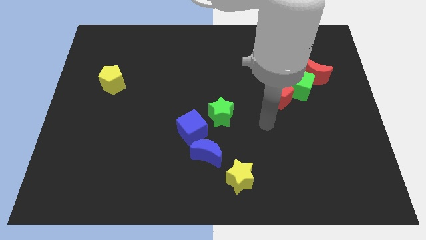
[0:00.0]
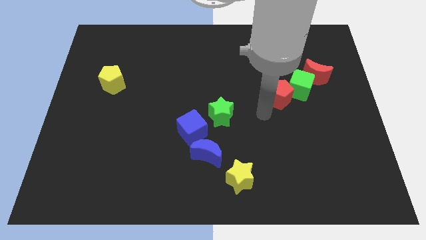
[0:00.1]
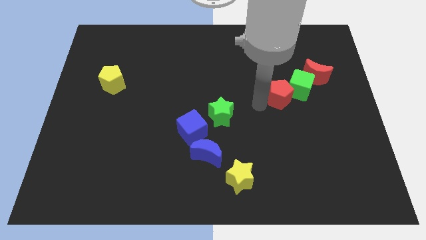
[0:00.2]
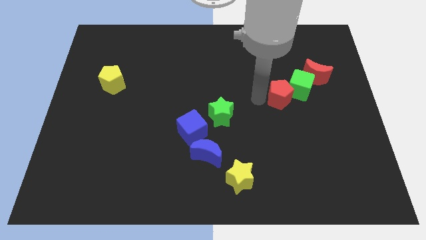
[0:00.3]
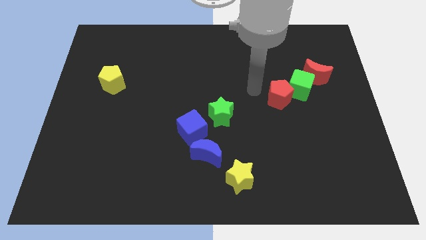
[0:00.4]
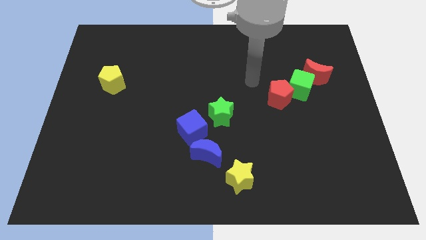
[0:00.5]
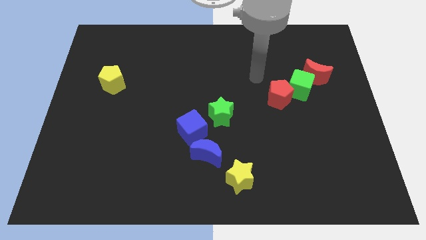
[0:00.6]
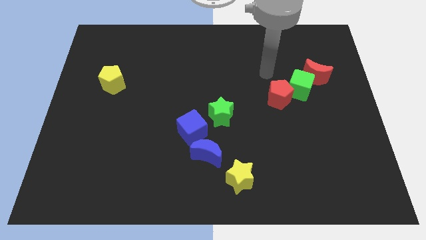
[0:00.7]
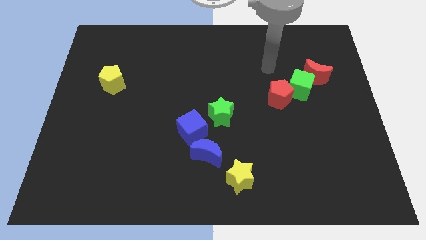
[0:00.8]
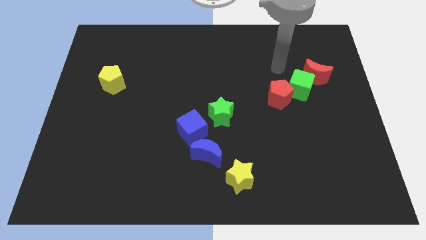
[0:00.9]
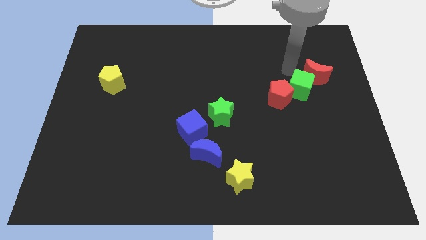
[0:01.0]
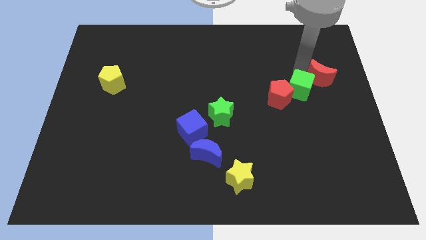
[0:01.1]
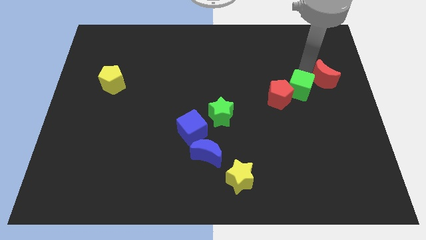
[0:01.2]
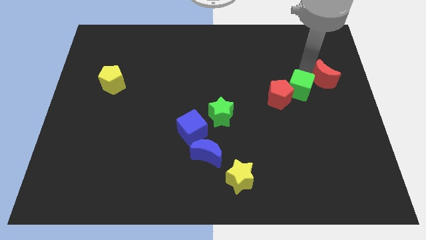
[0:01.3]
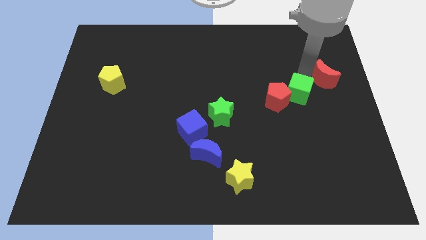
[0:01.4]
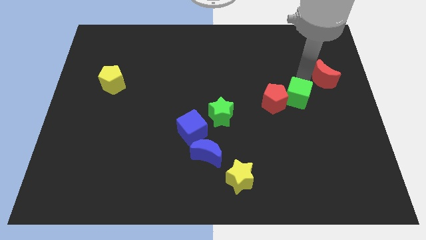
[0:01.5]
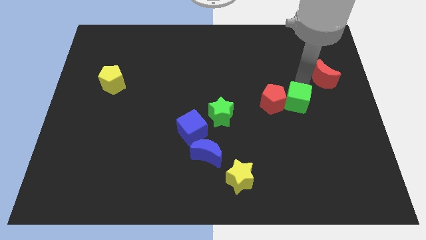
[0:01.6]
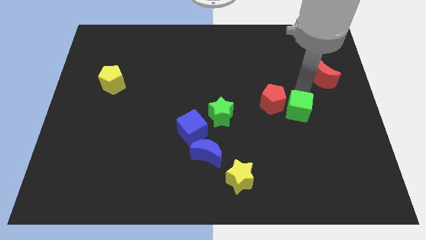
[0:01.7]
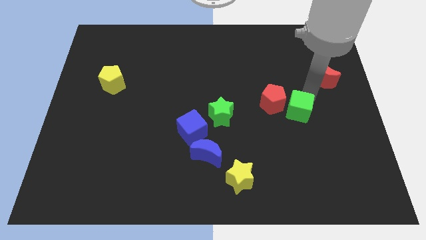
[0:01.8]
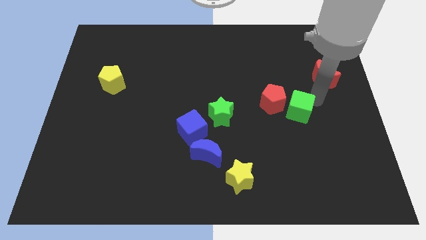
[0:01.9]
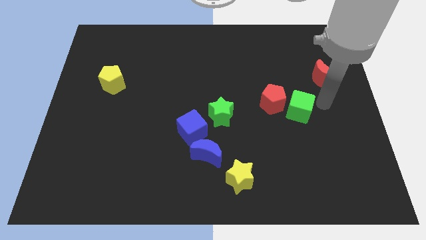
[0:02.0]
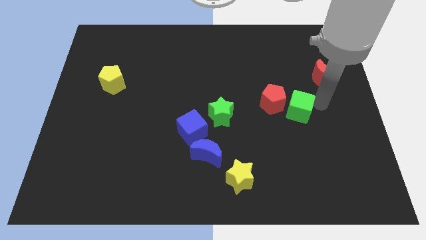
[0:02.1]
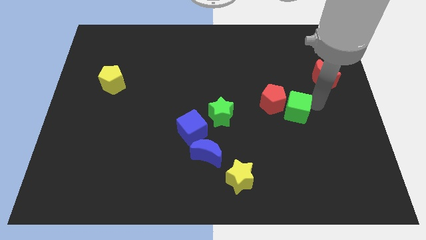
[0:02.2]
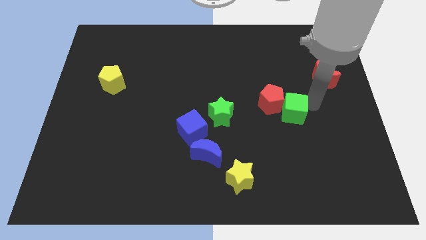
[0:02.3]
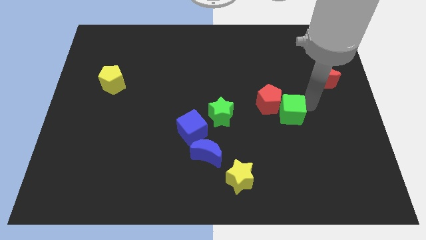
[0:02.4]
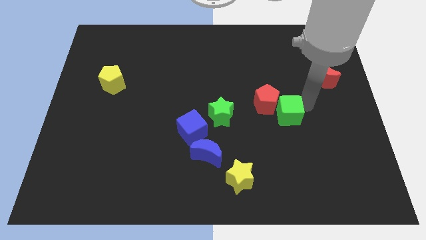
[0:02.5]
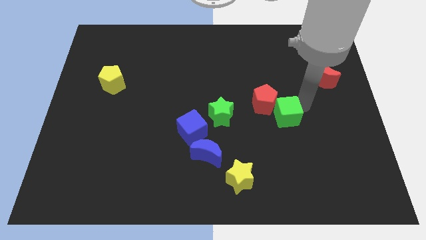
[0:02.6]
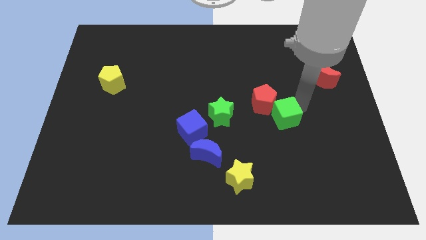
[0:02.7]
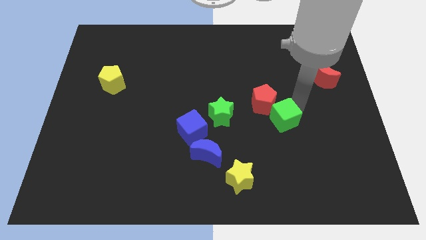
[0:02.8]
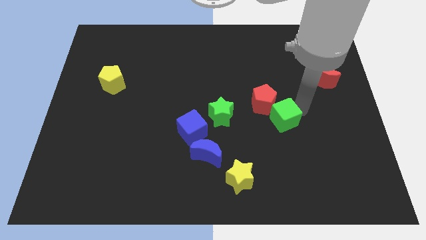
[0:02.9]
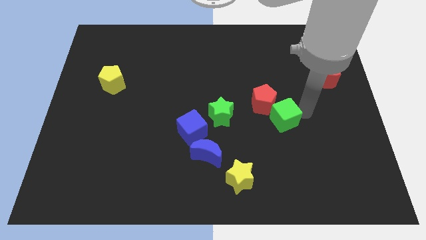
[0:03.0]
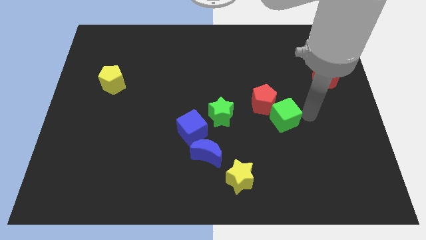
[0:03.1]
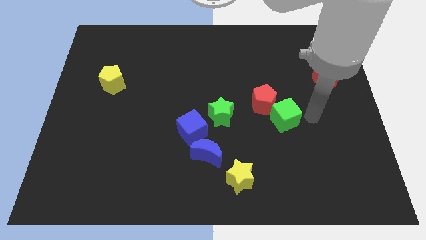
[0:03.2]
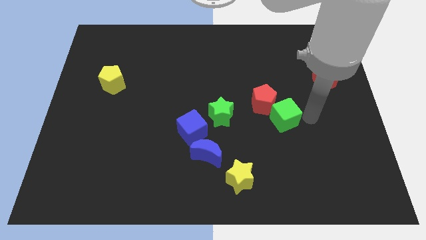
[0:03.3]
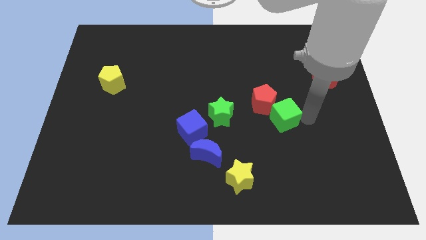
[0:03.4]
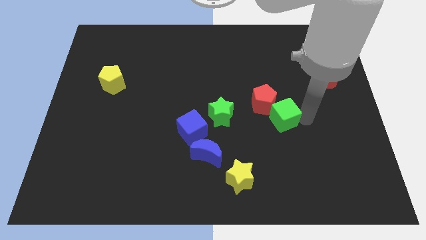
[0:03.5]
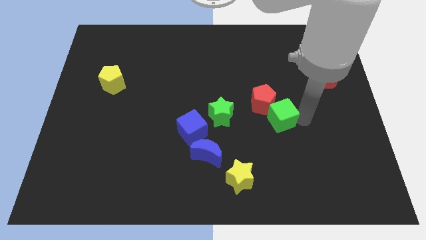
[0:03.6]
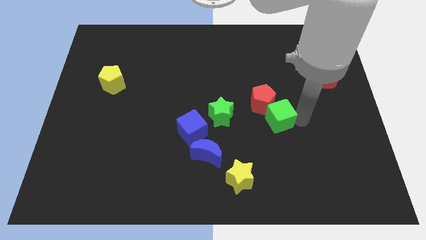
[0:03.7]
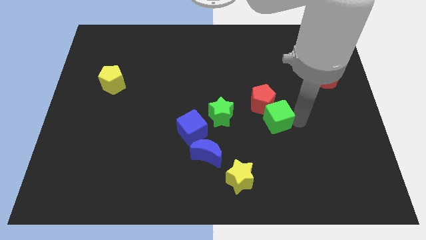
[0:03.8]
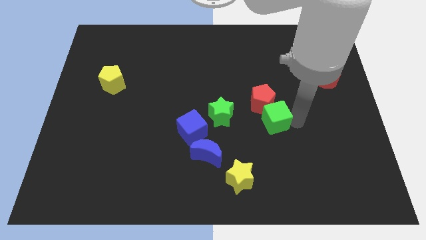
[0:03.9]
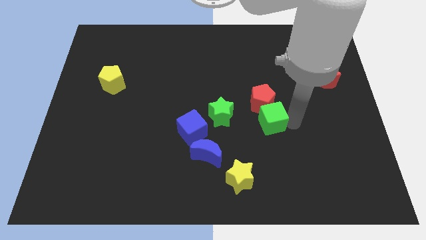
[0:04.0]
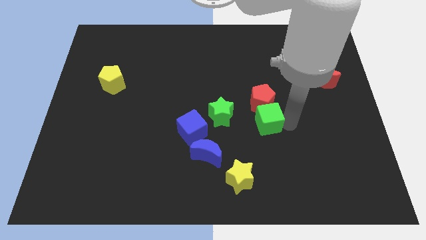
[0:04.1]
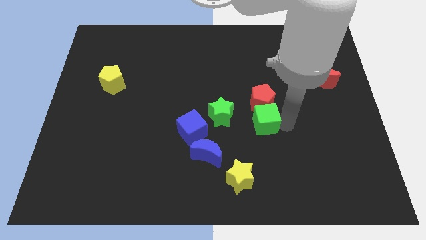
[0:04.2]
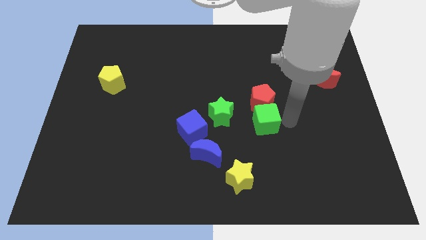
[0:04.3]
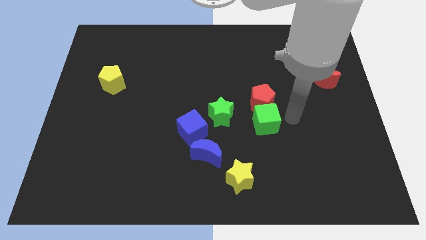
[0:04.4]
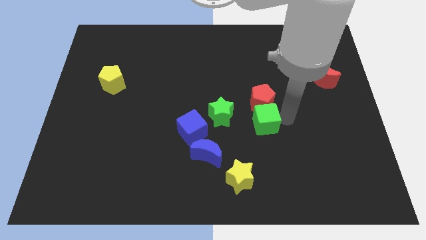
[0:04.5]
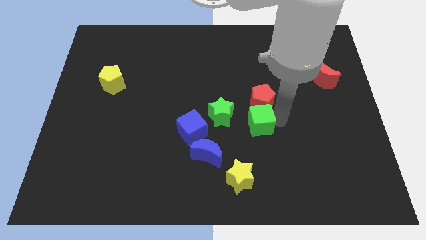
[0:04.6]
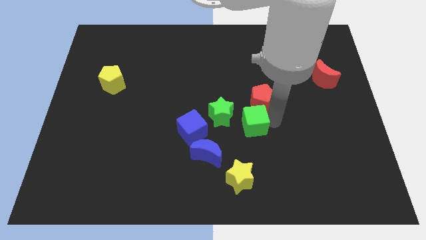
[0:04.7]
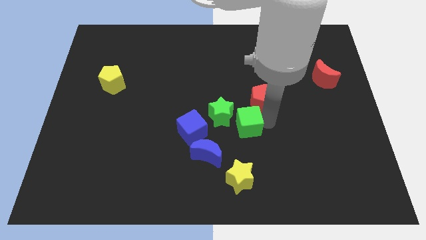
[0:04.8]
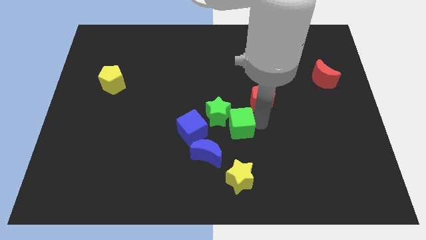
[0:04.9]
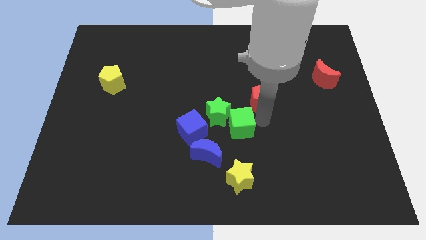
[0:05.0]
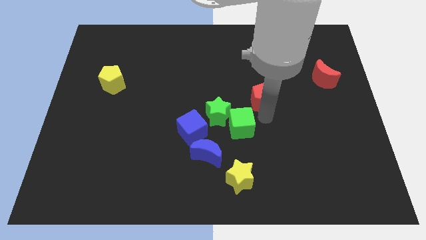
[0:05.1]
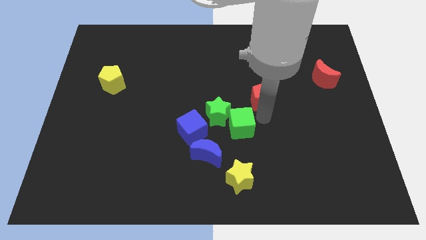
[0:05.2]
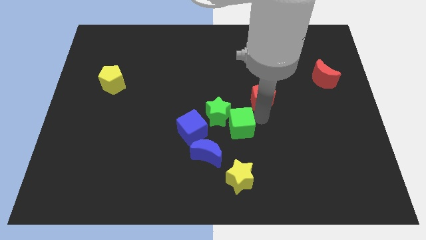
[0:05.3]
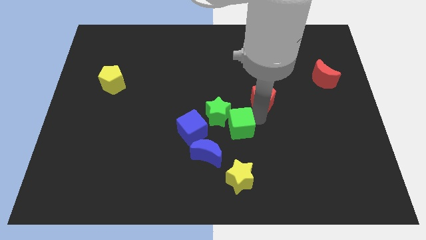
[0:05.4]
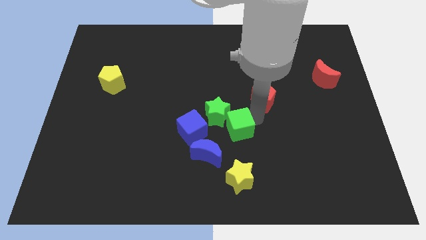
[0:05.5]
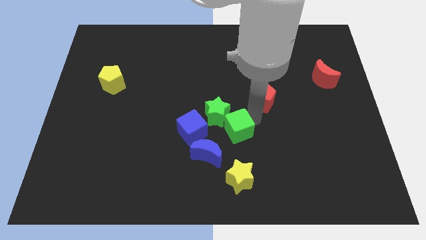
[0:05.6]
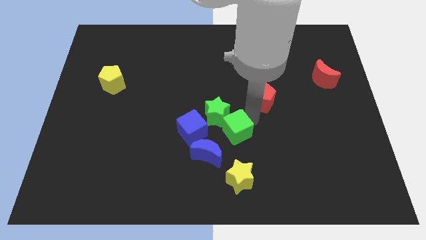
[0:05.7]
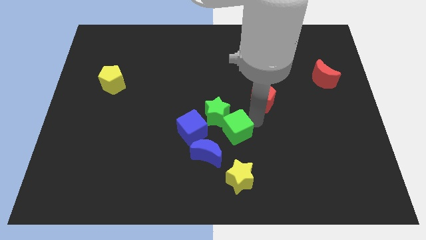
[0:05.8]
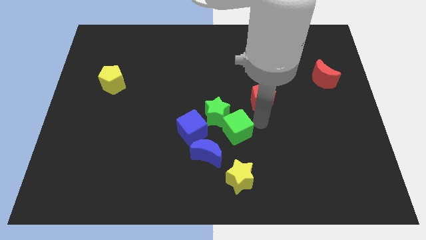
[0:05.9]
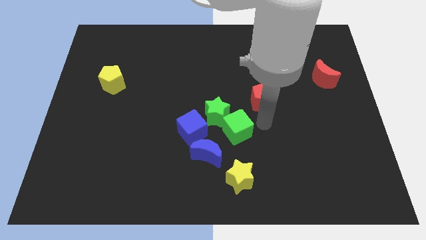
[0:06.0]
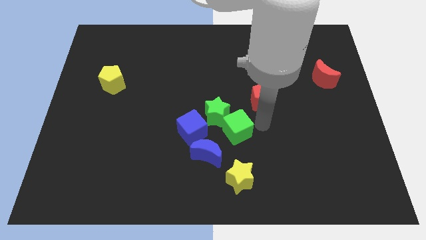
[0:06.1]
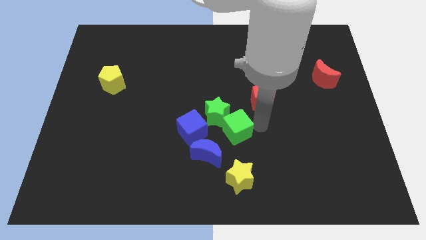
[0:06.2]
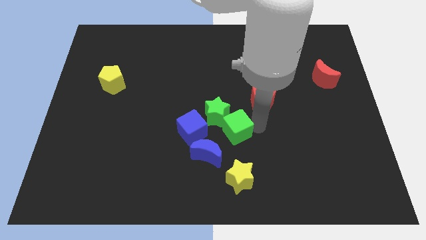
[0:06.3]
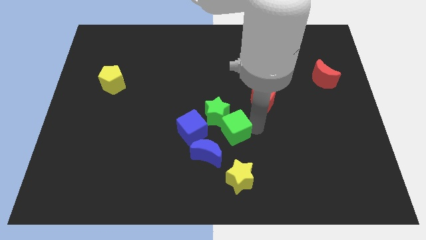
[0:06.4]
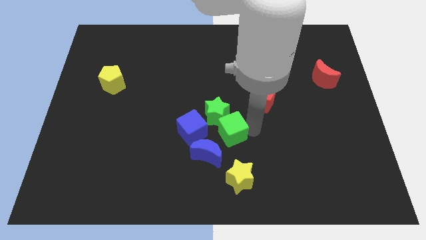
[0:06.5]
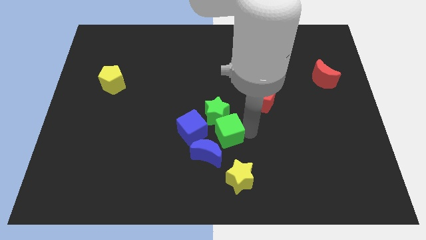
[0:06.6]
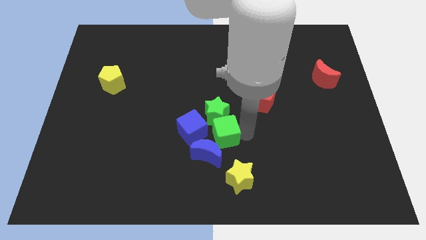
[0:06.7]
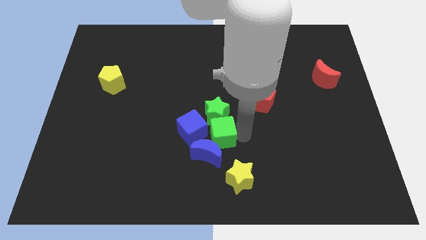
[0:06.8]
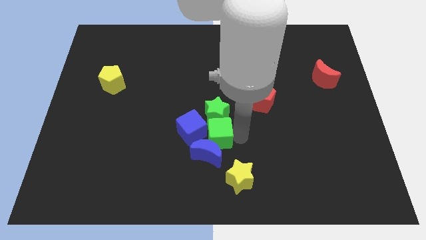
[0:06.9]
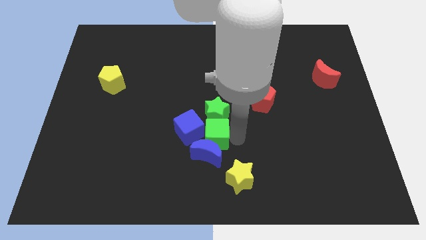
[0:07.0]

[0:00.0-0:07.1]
put the green cube next to the blue cube
